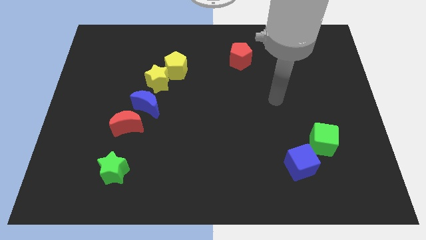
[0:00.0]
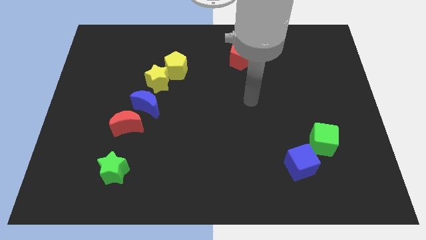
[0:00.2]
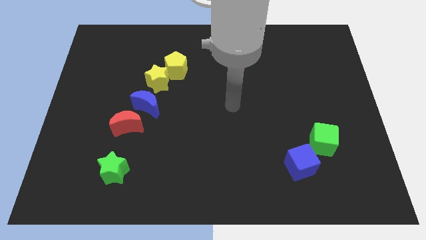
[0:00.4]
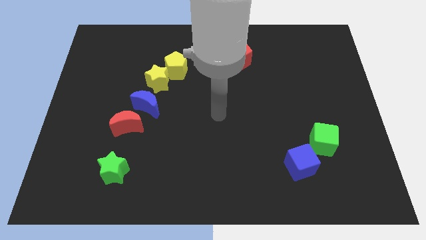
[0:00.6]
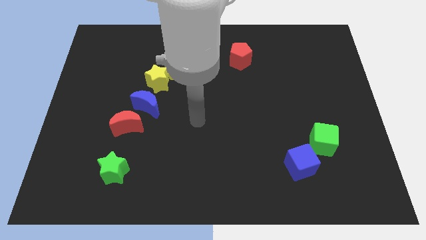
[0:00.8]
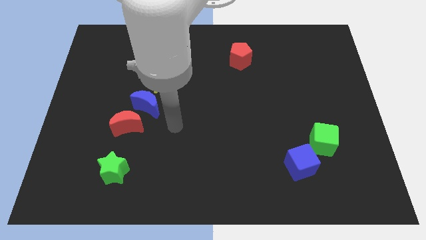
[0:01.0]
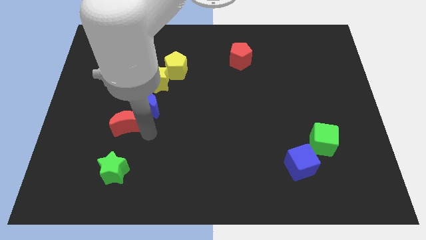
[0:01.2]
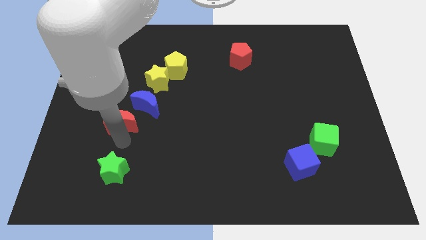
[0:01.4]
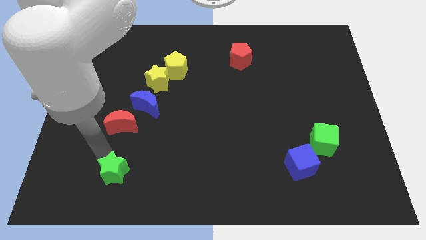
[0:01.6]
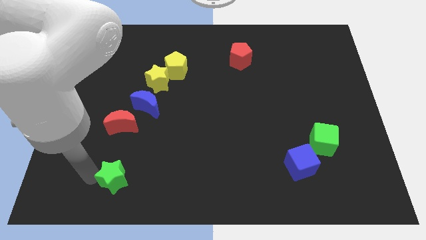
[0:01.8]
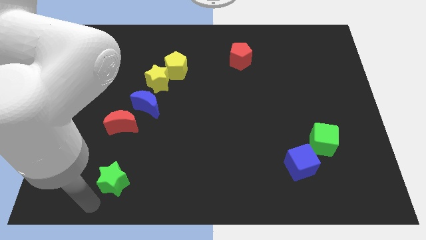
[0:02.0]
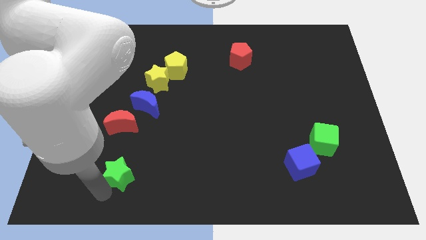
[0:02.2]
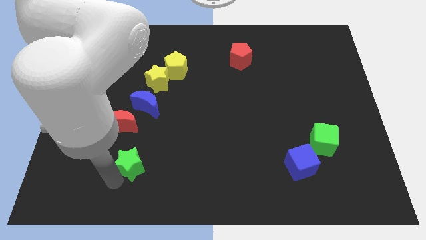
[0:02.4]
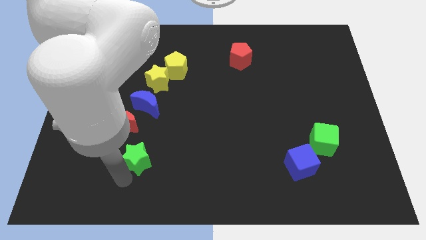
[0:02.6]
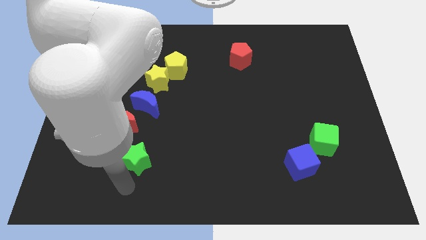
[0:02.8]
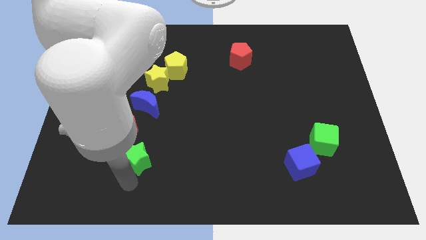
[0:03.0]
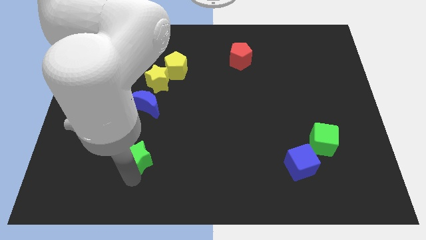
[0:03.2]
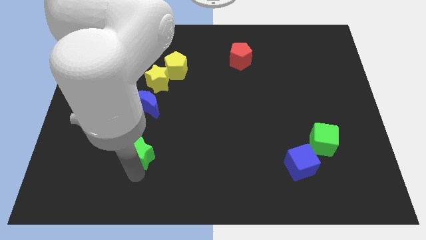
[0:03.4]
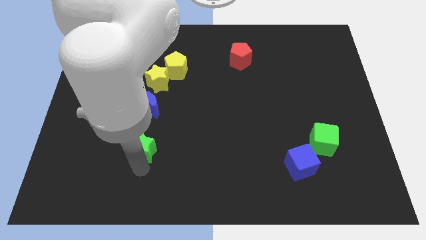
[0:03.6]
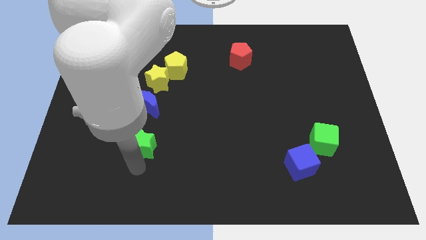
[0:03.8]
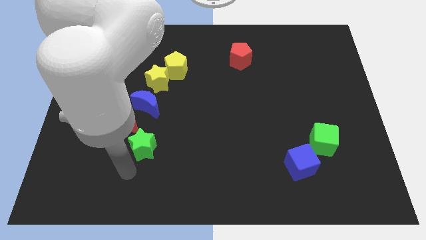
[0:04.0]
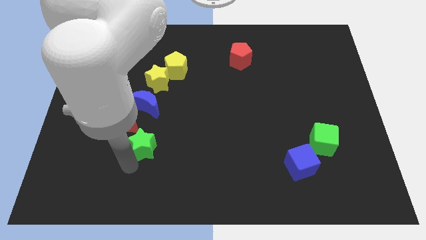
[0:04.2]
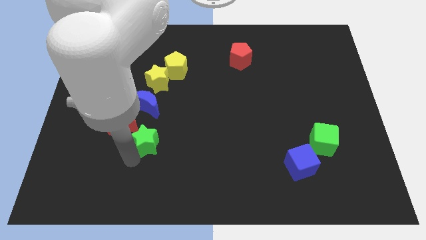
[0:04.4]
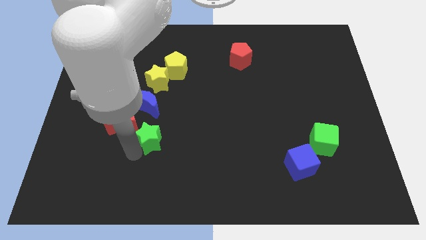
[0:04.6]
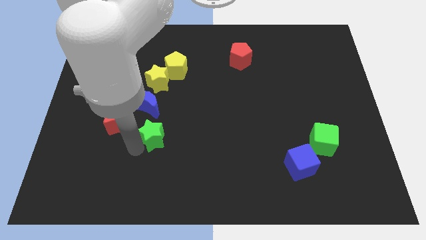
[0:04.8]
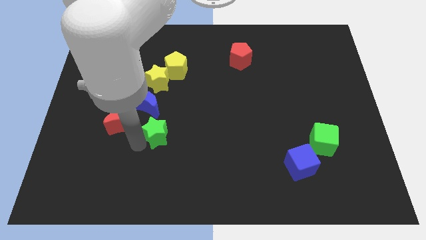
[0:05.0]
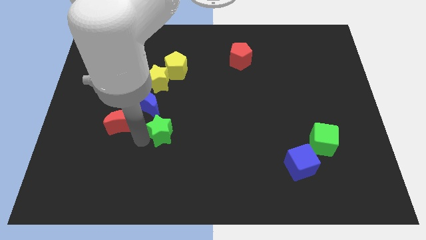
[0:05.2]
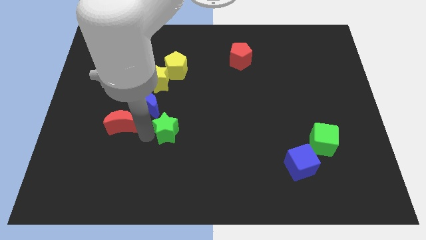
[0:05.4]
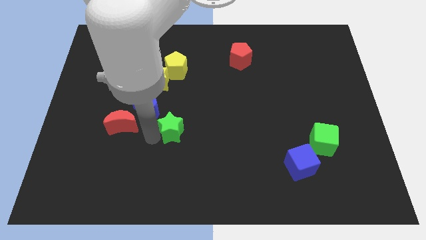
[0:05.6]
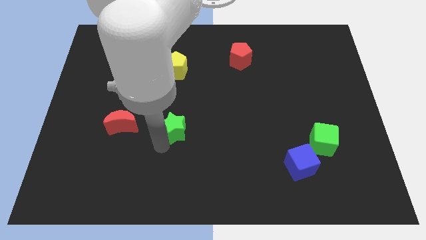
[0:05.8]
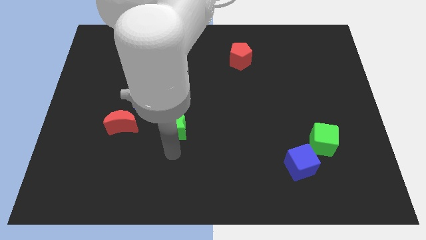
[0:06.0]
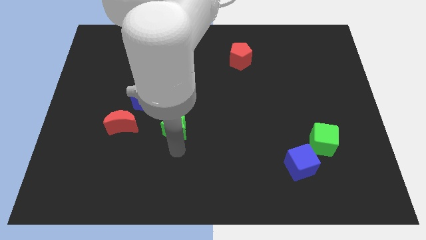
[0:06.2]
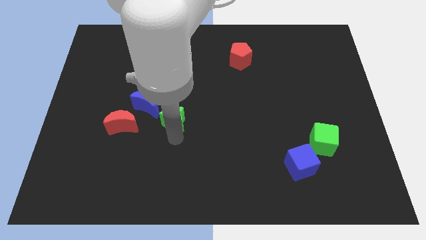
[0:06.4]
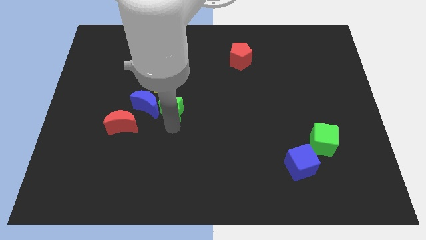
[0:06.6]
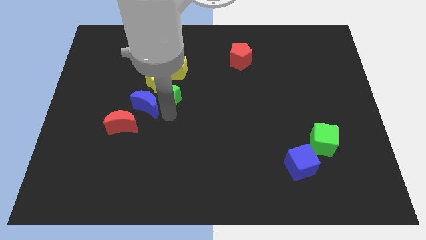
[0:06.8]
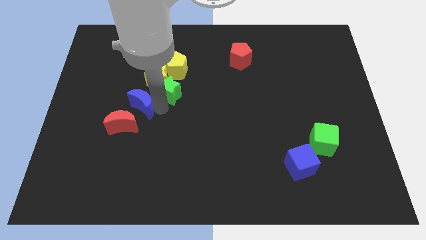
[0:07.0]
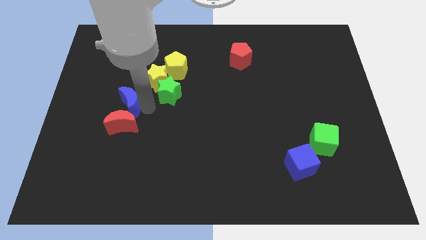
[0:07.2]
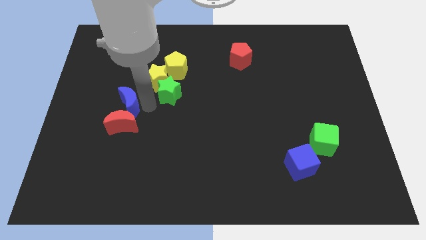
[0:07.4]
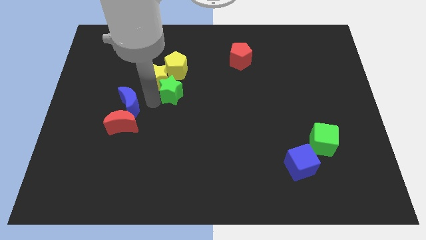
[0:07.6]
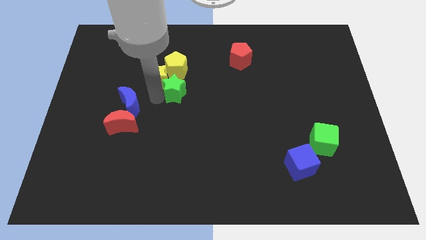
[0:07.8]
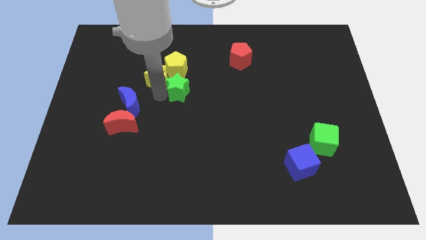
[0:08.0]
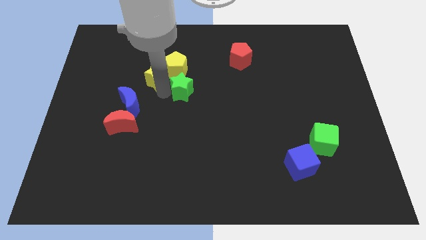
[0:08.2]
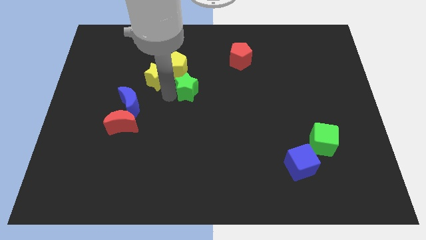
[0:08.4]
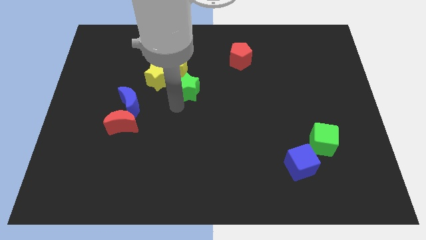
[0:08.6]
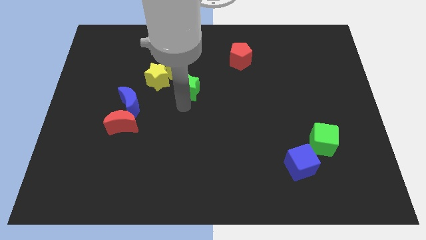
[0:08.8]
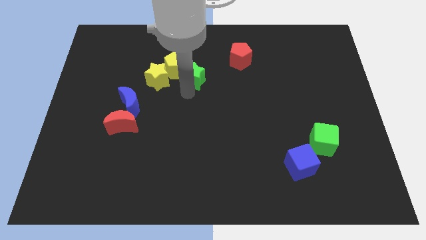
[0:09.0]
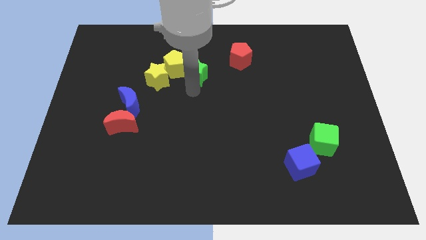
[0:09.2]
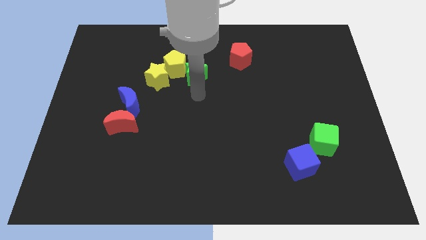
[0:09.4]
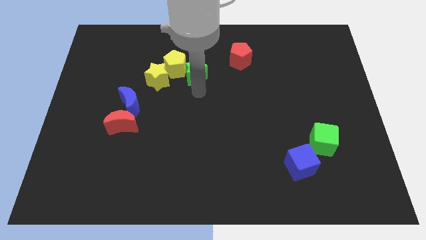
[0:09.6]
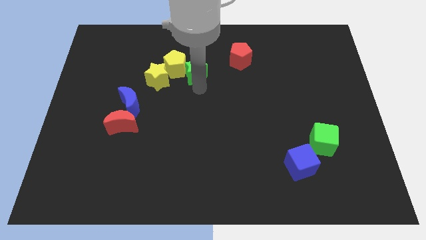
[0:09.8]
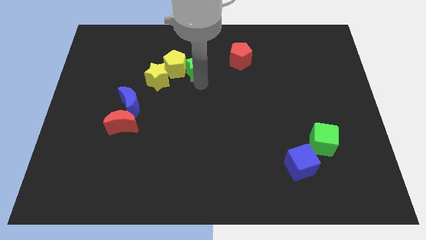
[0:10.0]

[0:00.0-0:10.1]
put the green star to the top right side of the yellow pentagon

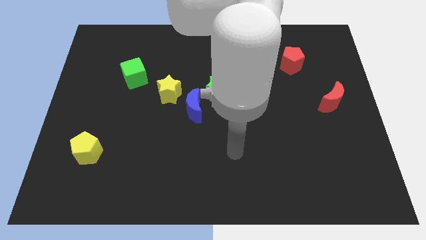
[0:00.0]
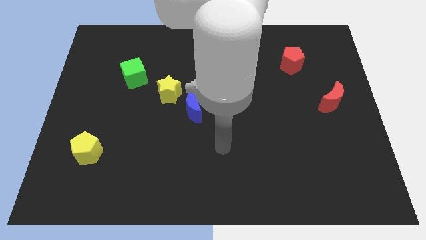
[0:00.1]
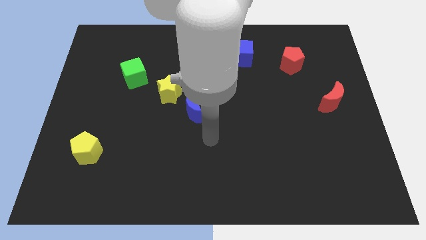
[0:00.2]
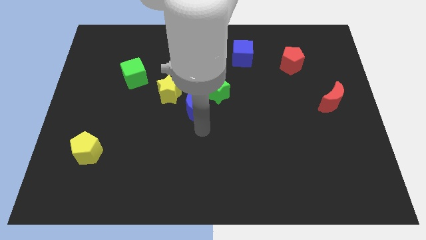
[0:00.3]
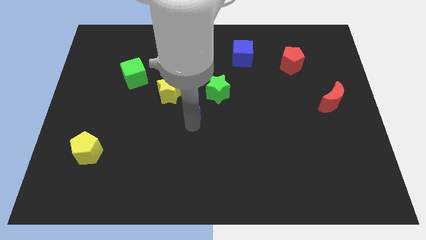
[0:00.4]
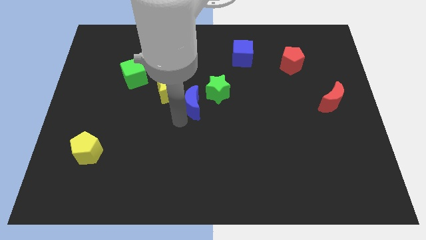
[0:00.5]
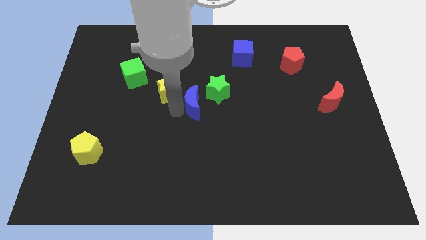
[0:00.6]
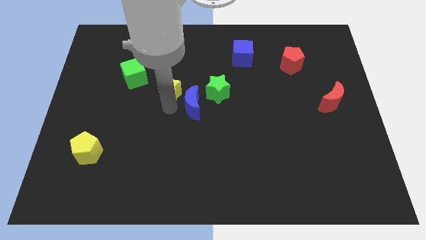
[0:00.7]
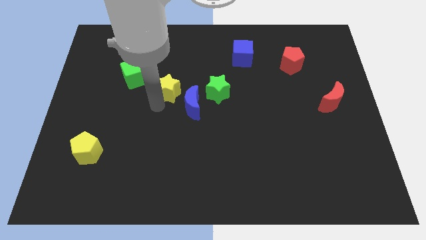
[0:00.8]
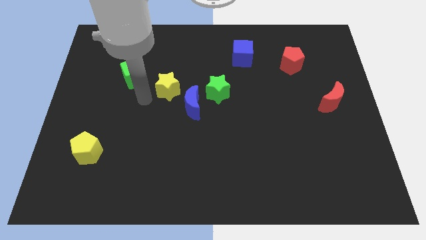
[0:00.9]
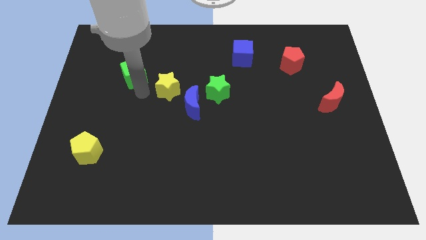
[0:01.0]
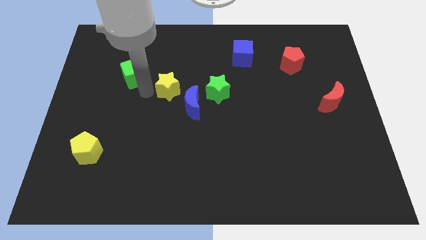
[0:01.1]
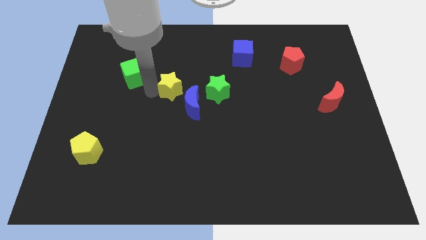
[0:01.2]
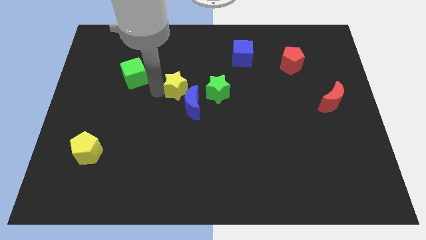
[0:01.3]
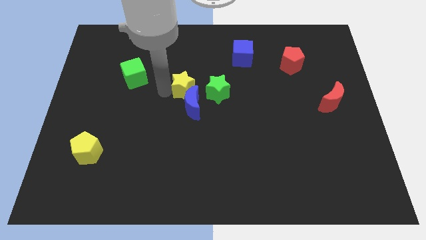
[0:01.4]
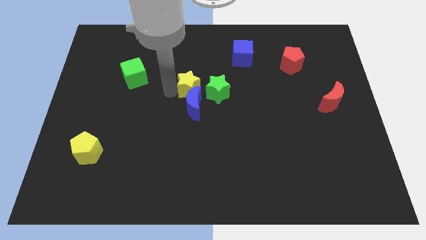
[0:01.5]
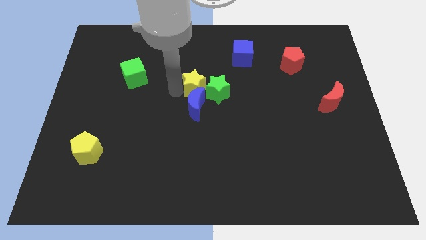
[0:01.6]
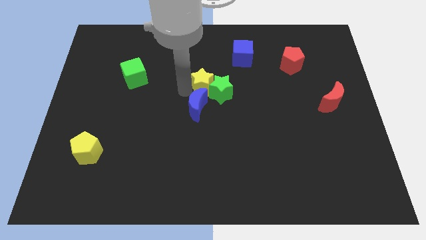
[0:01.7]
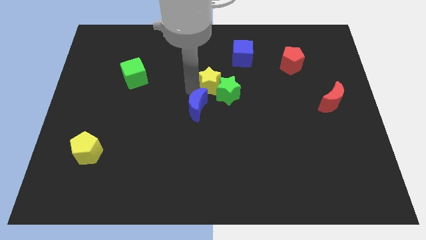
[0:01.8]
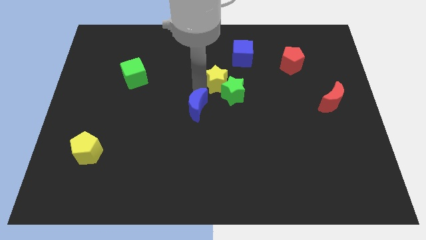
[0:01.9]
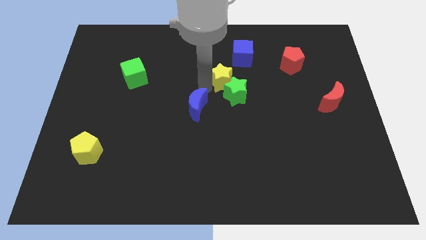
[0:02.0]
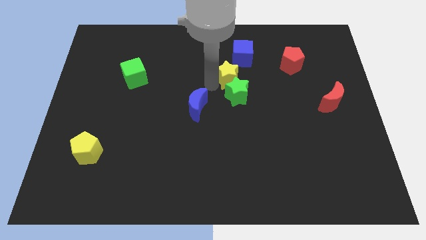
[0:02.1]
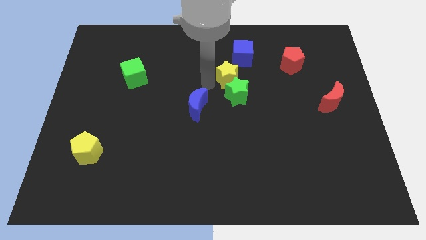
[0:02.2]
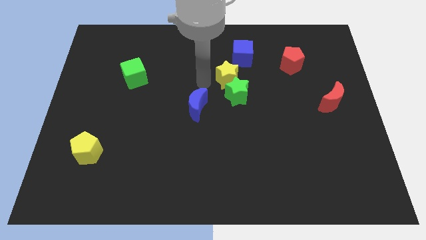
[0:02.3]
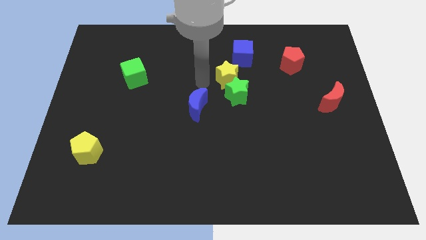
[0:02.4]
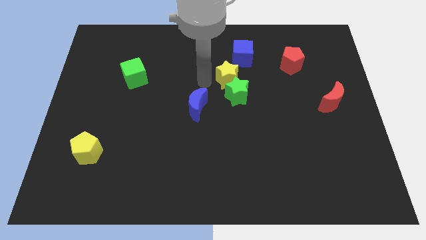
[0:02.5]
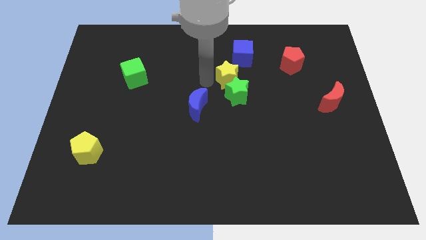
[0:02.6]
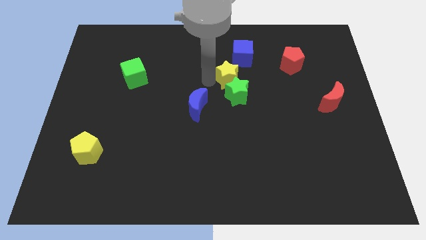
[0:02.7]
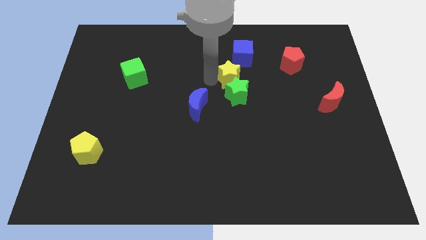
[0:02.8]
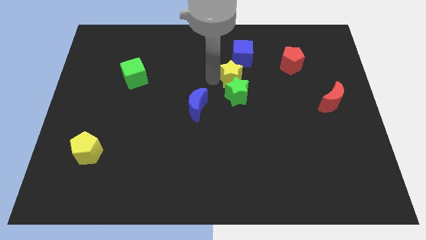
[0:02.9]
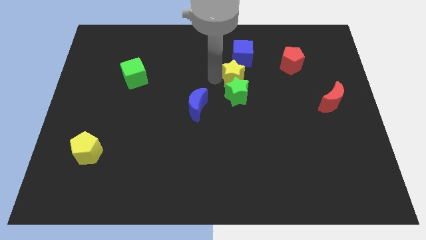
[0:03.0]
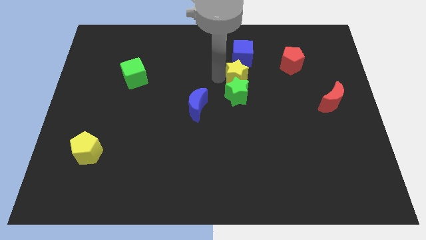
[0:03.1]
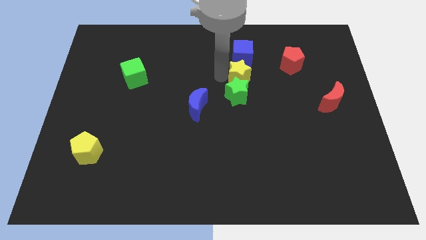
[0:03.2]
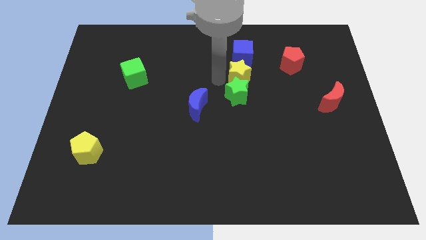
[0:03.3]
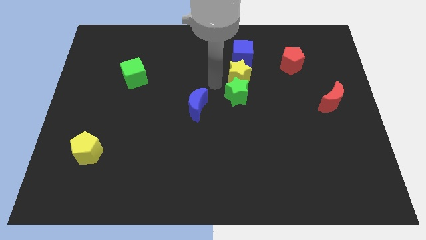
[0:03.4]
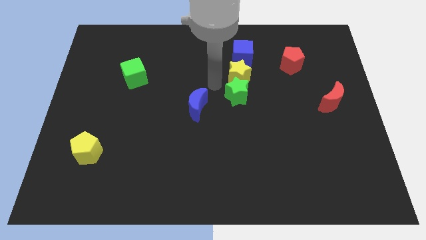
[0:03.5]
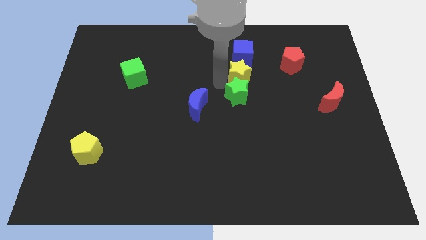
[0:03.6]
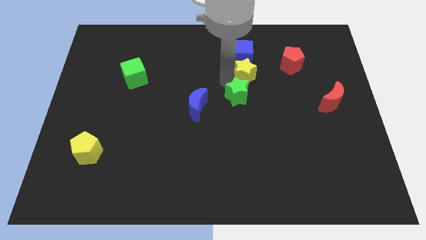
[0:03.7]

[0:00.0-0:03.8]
move the yellow star to the bottom right of the blue cube
